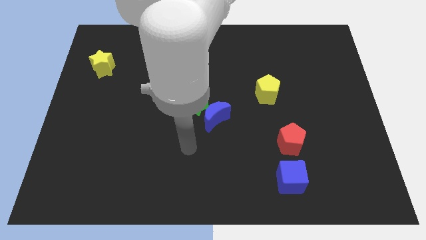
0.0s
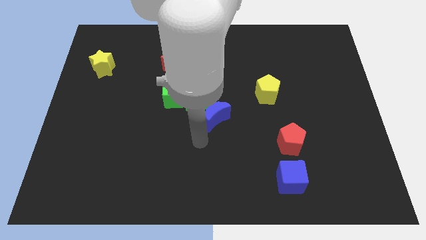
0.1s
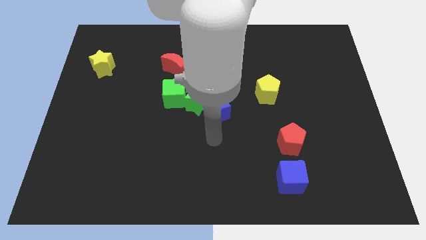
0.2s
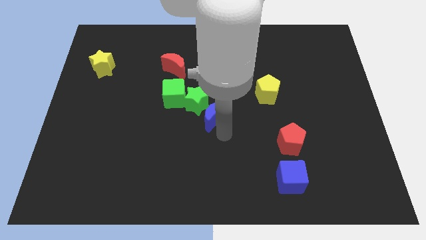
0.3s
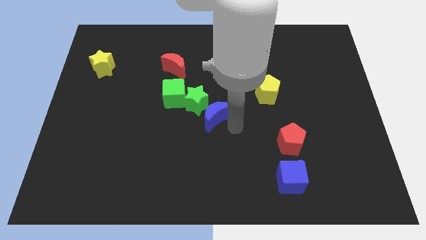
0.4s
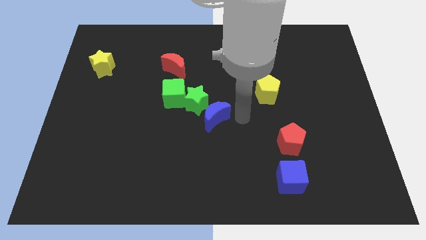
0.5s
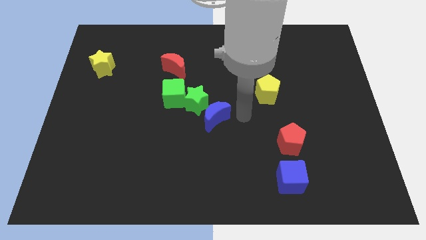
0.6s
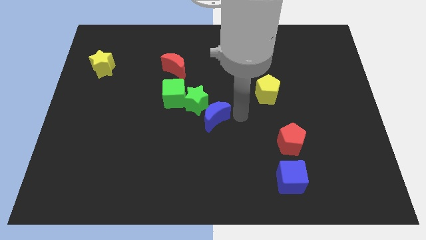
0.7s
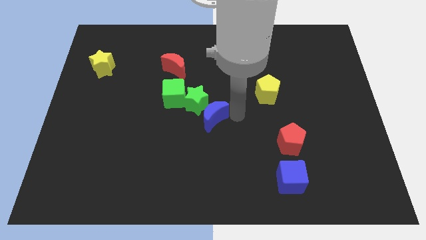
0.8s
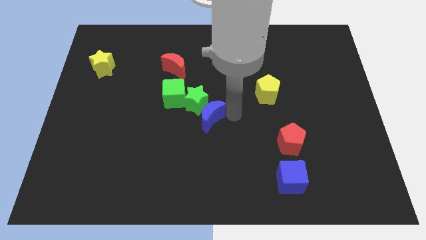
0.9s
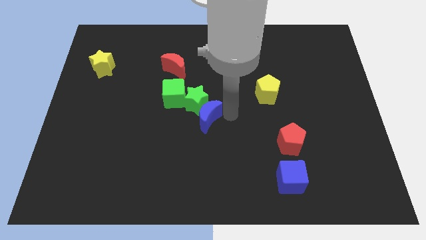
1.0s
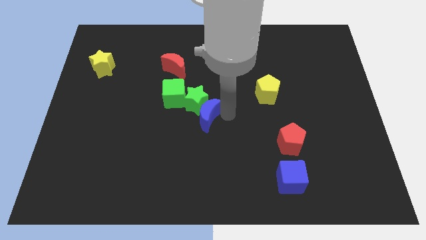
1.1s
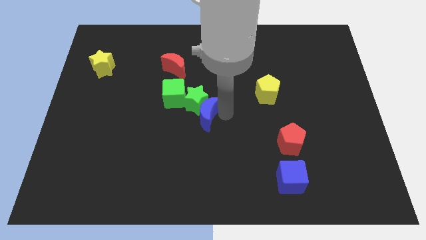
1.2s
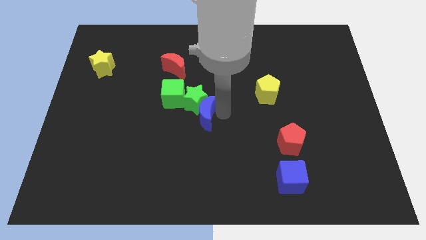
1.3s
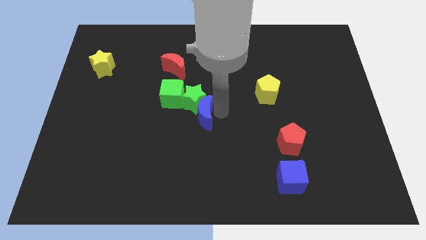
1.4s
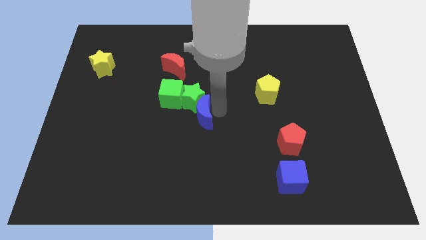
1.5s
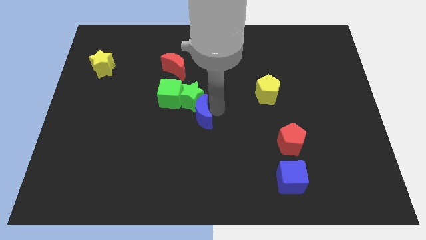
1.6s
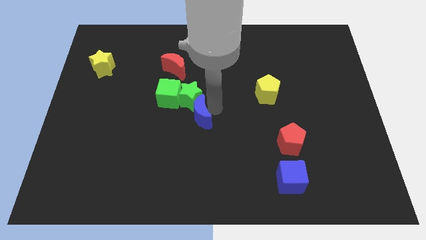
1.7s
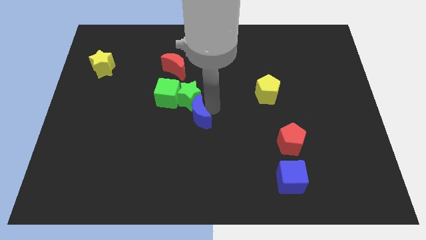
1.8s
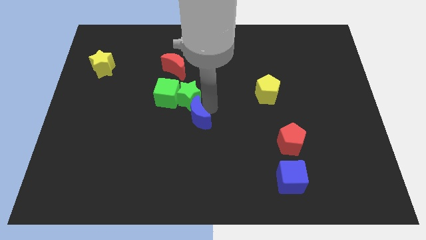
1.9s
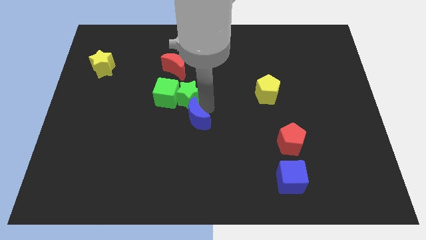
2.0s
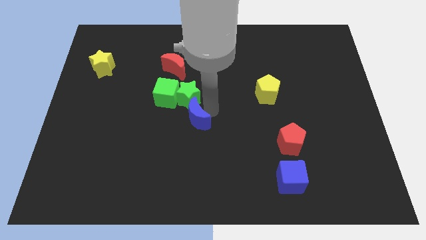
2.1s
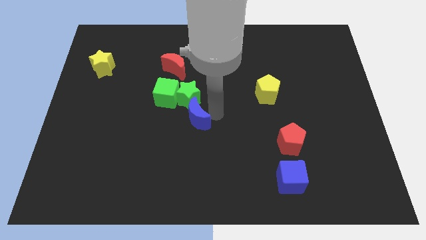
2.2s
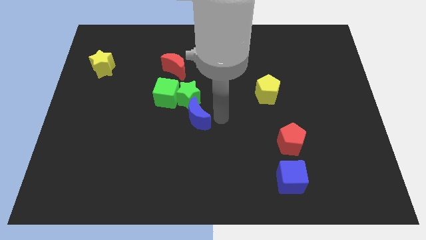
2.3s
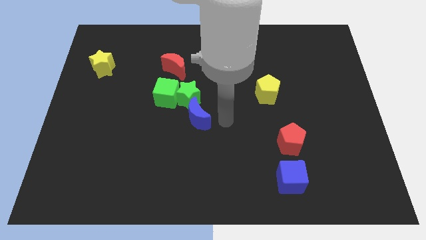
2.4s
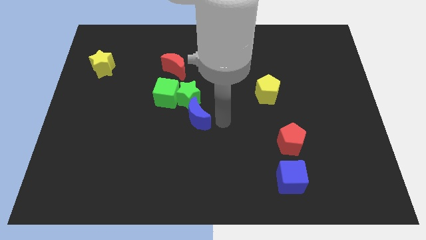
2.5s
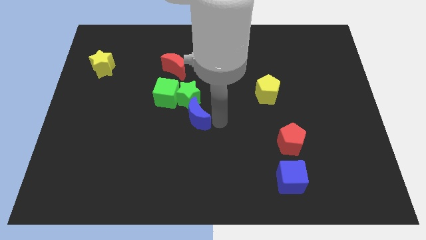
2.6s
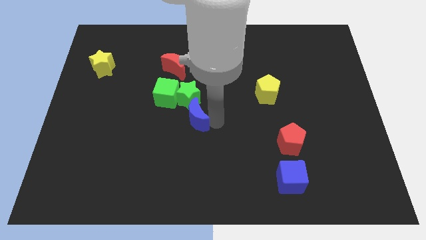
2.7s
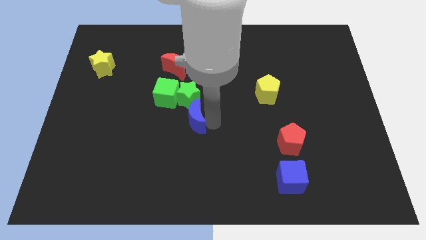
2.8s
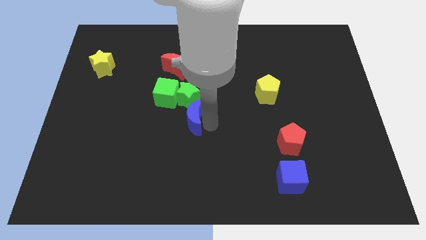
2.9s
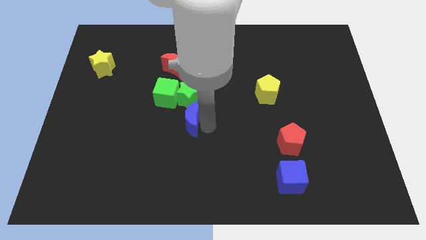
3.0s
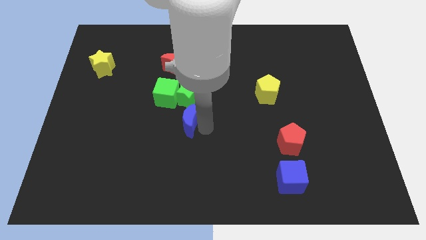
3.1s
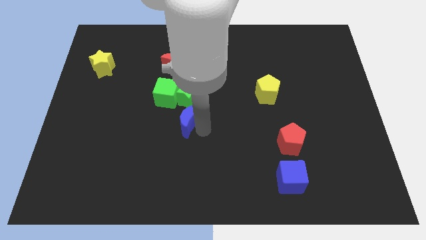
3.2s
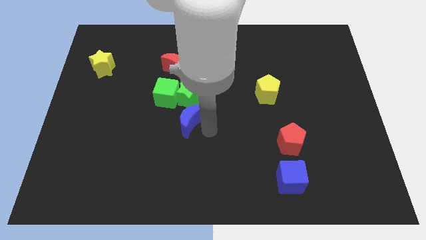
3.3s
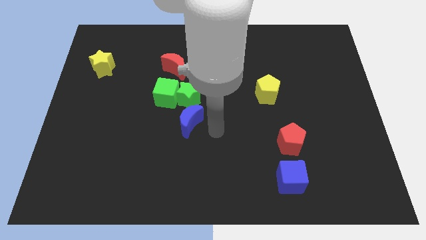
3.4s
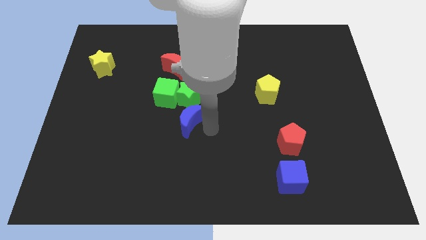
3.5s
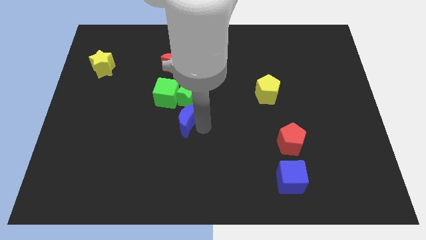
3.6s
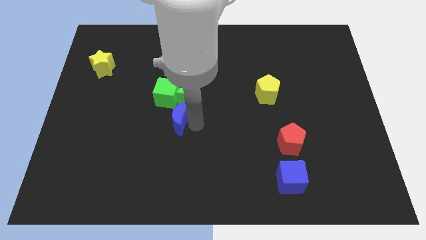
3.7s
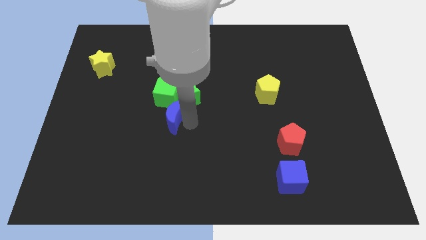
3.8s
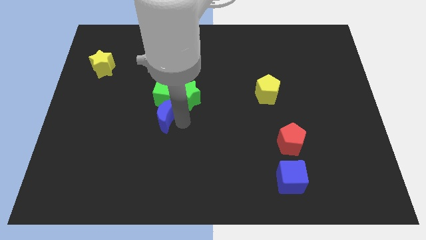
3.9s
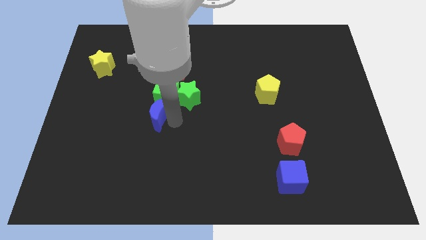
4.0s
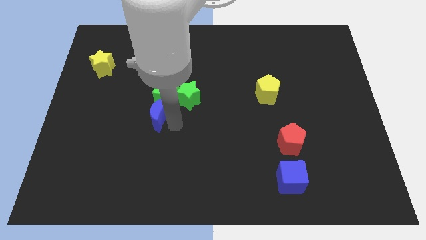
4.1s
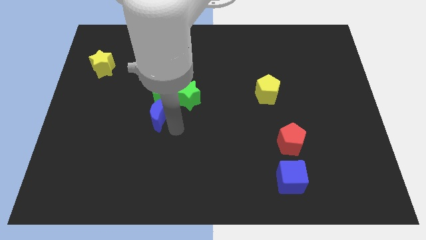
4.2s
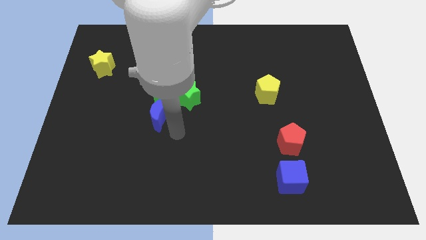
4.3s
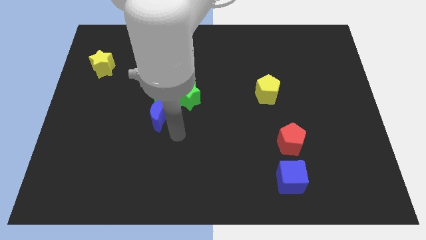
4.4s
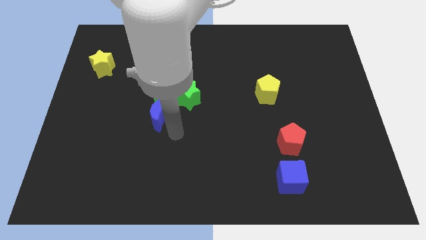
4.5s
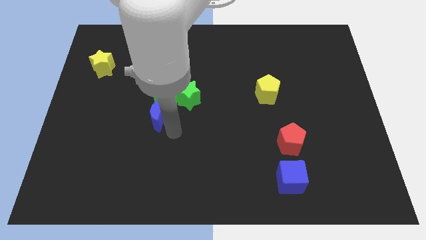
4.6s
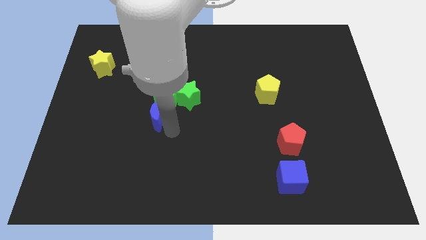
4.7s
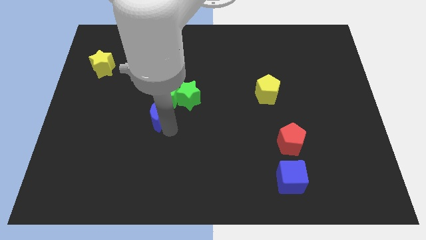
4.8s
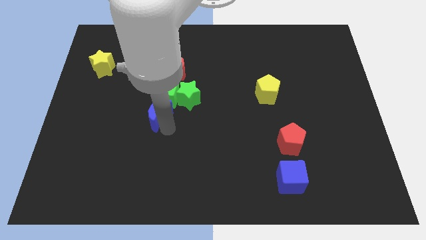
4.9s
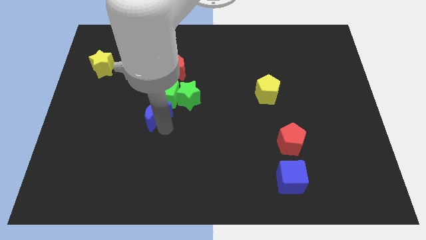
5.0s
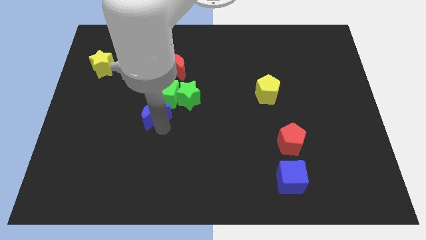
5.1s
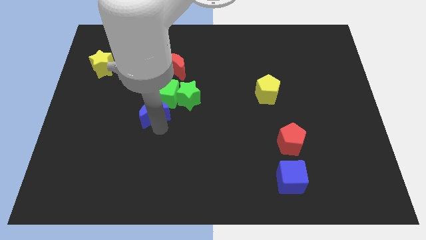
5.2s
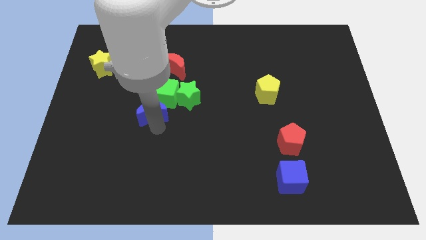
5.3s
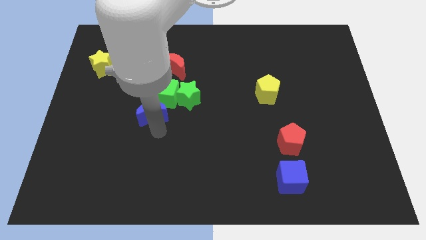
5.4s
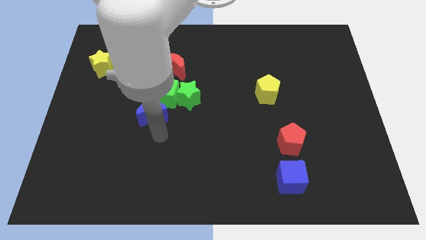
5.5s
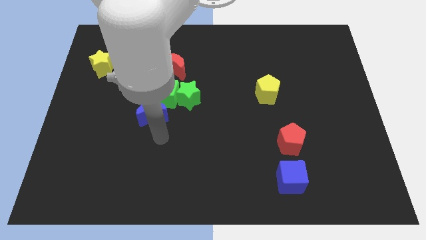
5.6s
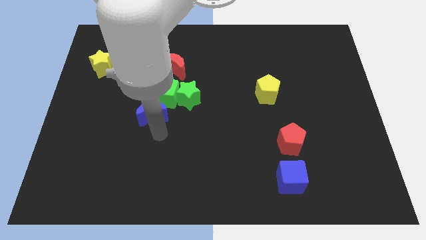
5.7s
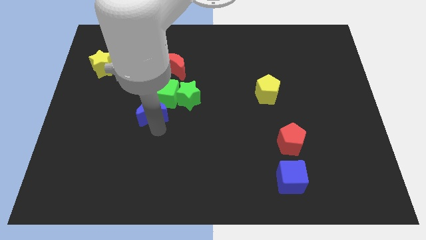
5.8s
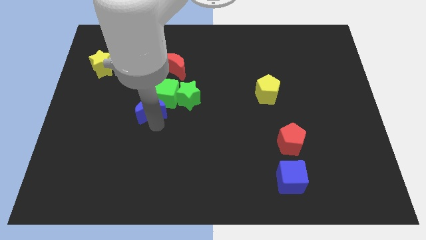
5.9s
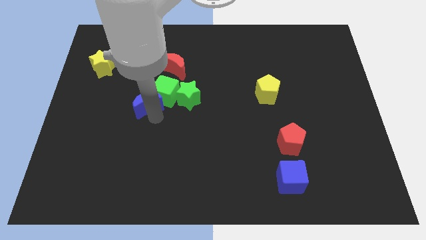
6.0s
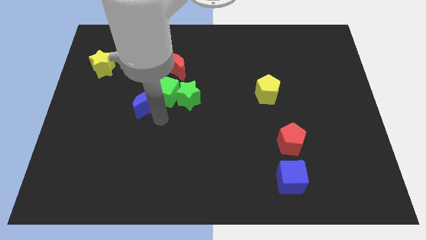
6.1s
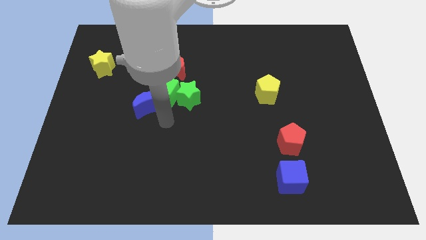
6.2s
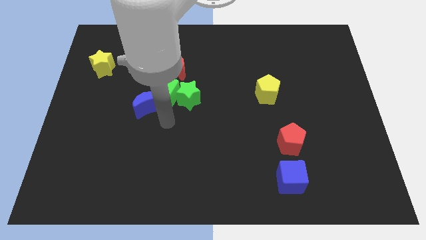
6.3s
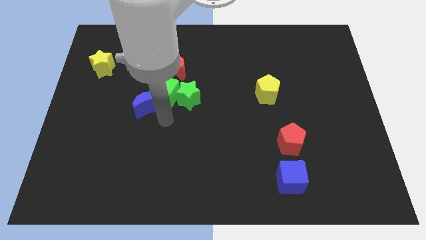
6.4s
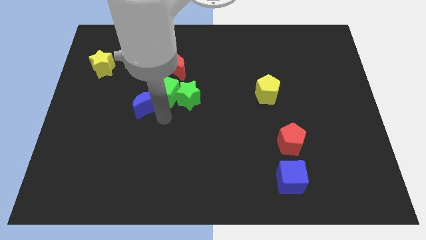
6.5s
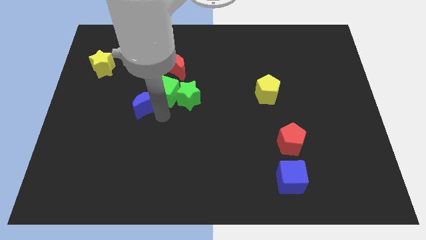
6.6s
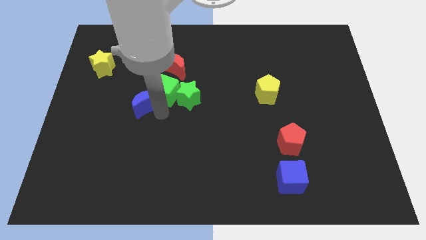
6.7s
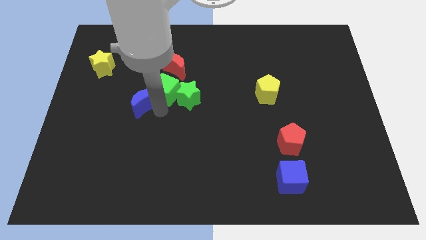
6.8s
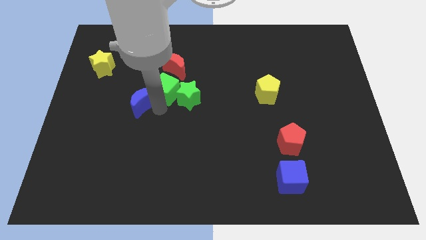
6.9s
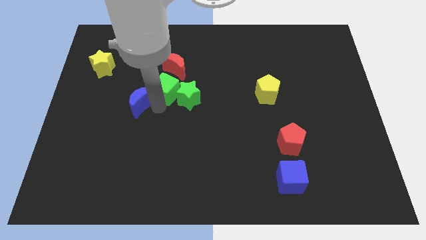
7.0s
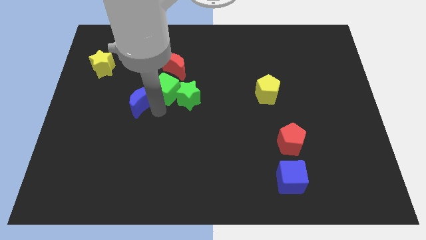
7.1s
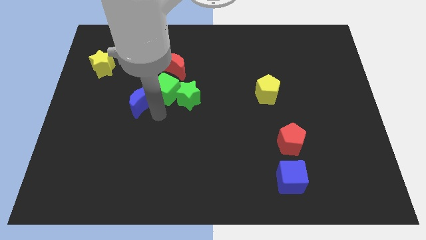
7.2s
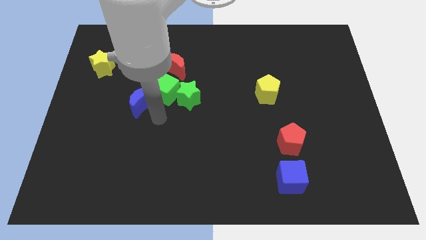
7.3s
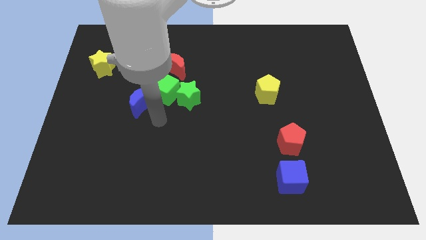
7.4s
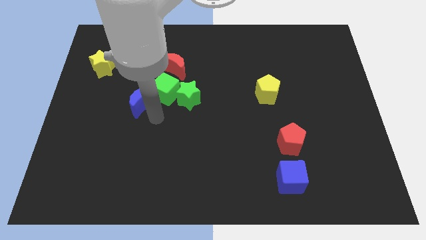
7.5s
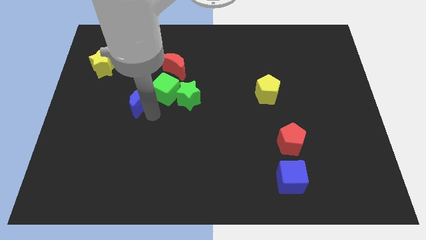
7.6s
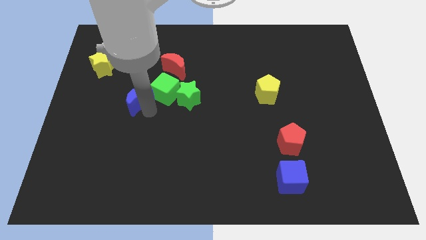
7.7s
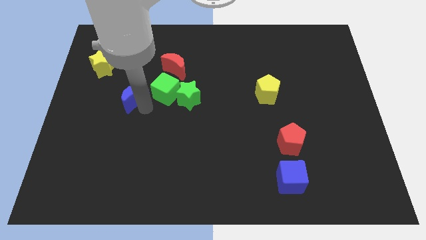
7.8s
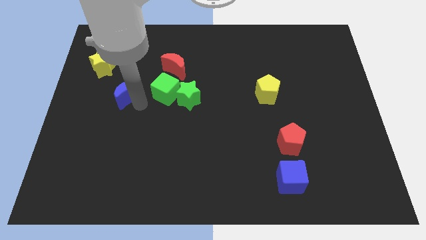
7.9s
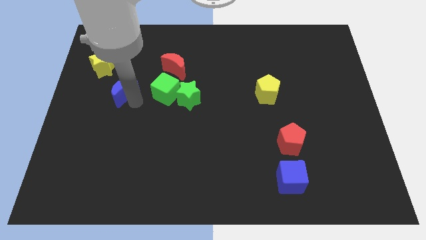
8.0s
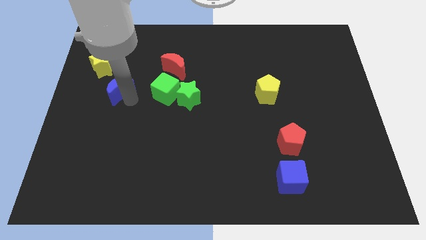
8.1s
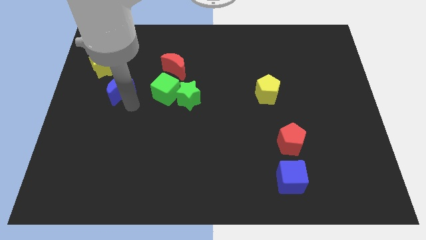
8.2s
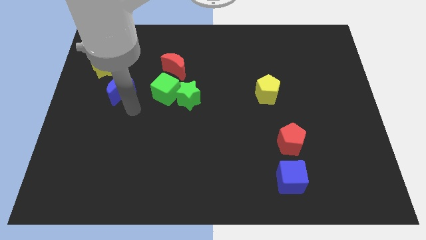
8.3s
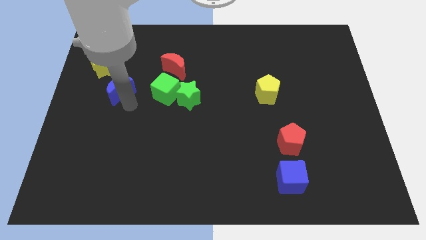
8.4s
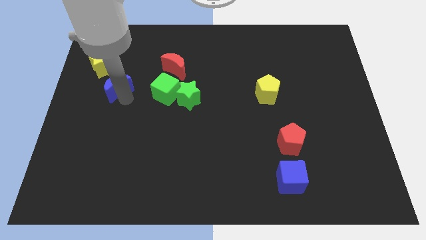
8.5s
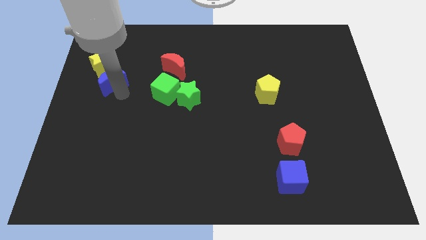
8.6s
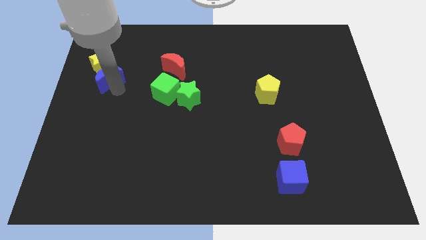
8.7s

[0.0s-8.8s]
slide the blue moon towards the yellow star
